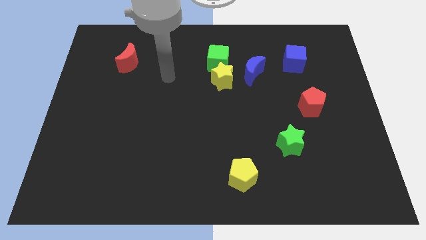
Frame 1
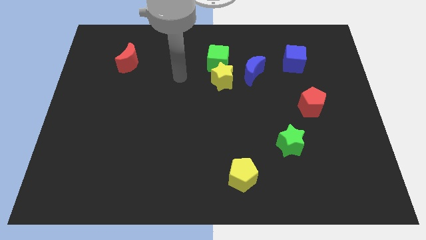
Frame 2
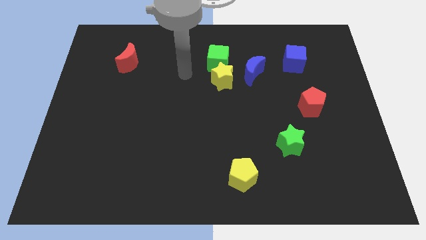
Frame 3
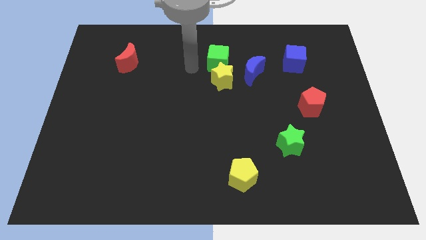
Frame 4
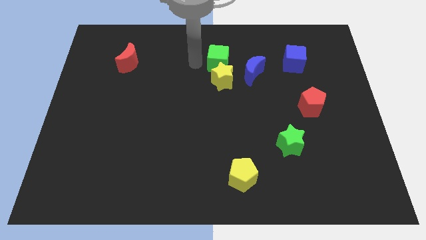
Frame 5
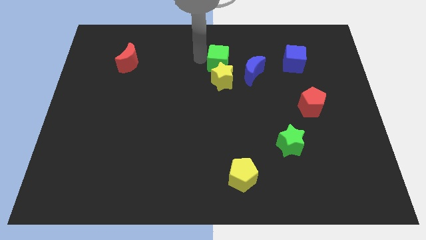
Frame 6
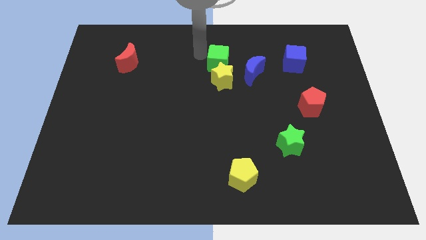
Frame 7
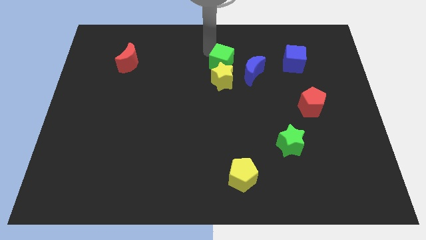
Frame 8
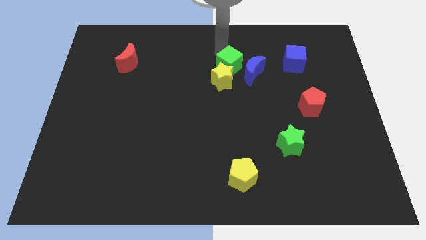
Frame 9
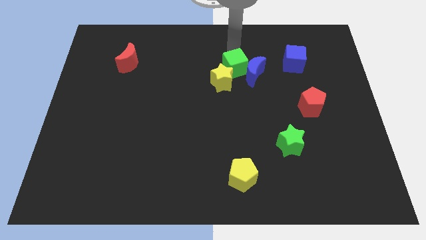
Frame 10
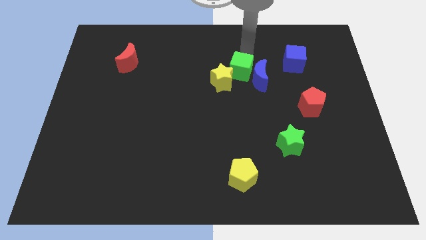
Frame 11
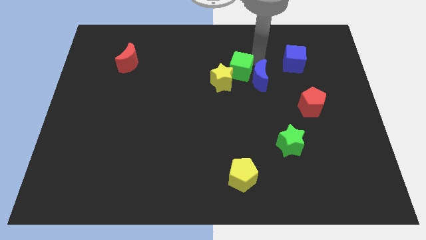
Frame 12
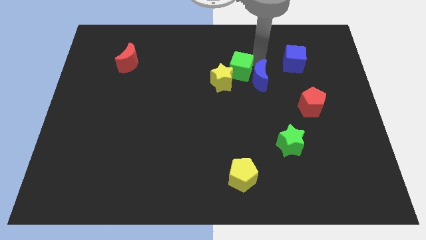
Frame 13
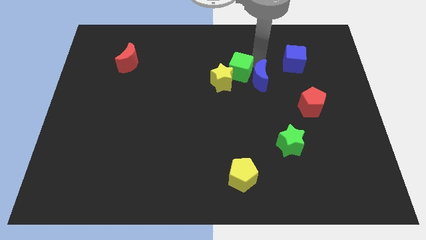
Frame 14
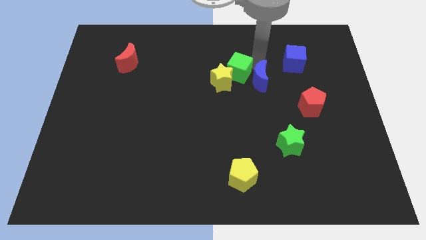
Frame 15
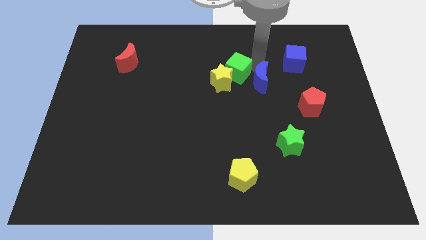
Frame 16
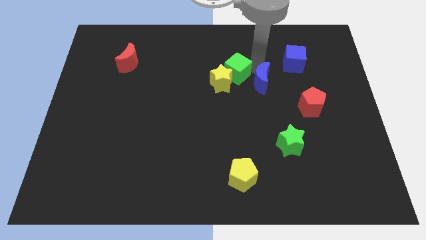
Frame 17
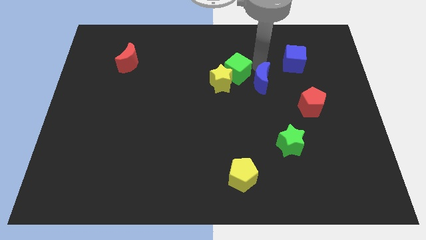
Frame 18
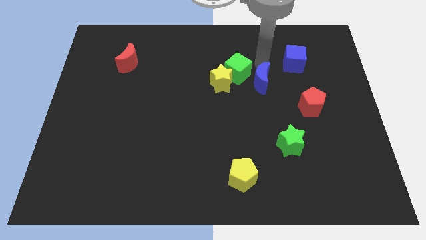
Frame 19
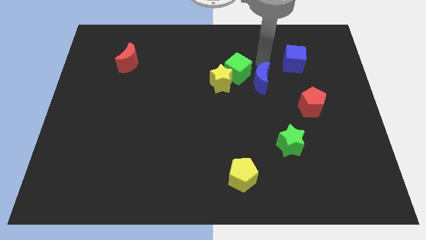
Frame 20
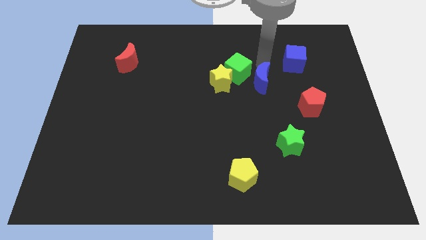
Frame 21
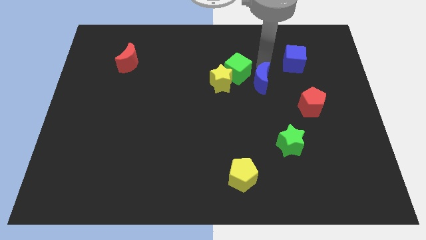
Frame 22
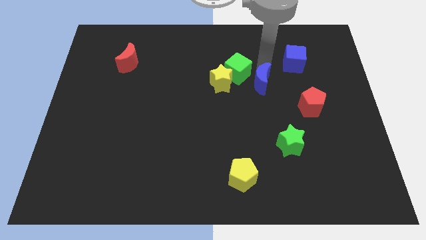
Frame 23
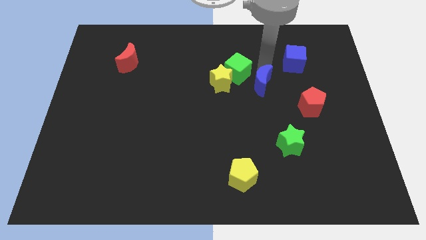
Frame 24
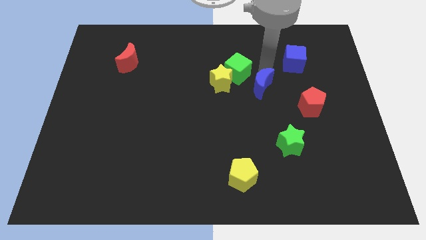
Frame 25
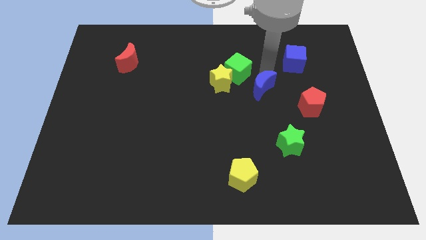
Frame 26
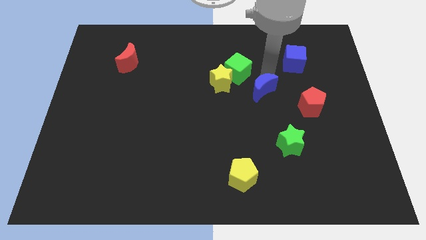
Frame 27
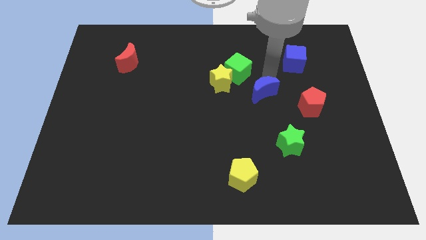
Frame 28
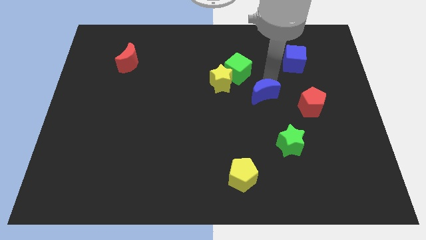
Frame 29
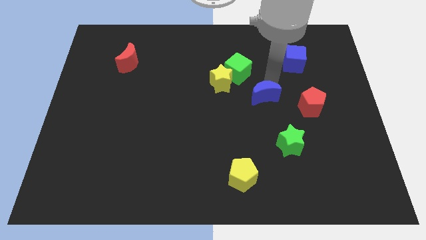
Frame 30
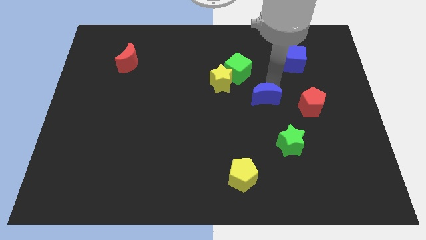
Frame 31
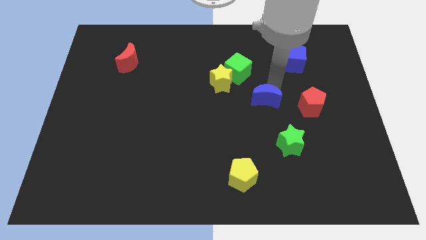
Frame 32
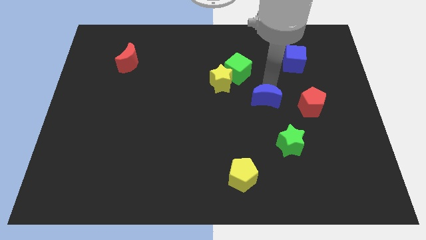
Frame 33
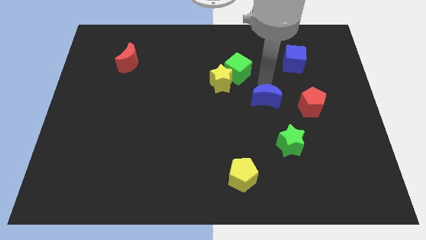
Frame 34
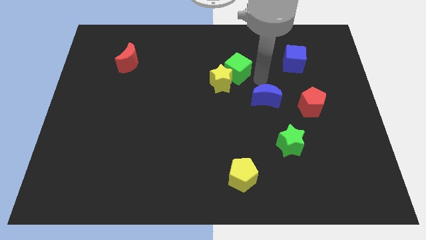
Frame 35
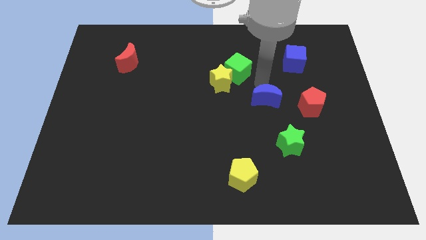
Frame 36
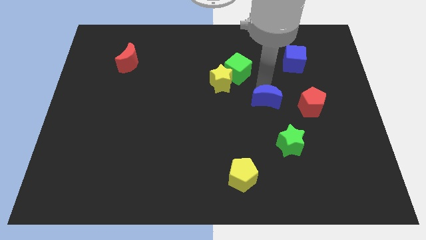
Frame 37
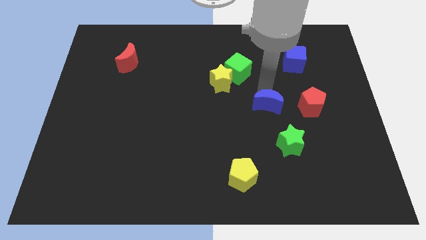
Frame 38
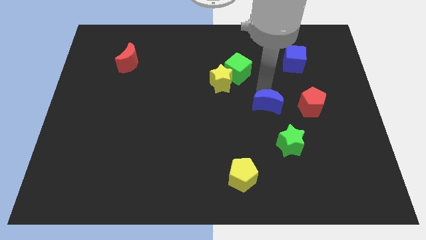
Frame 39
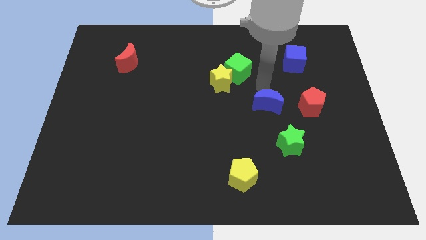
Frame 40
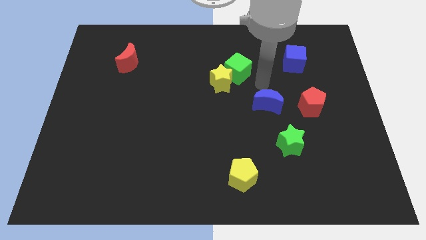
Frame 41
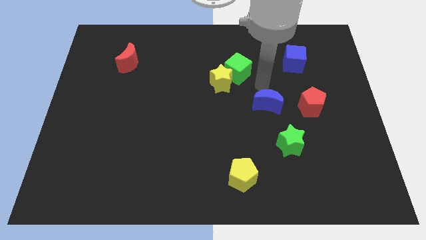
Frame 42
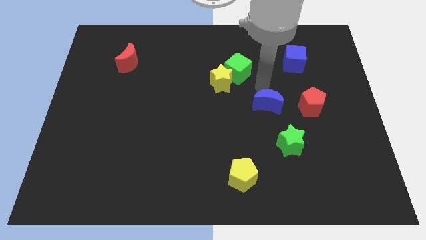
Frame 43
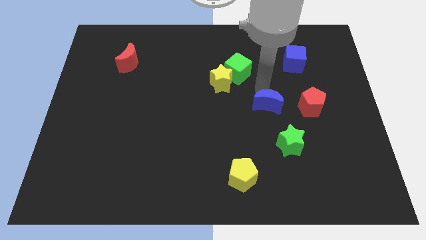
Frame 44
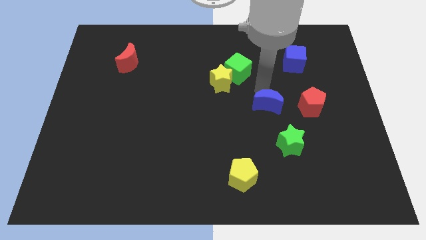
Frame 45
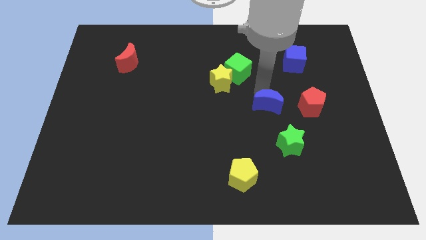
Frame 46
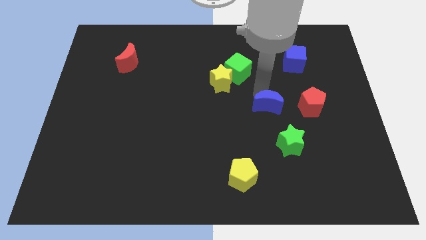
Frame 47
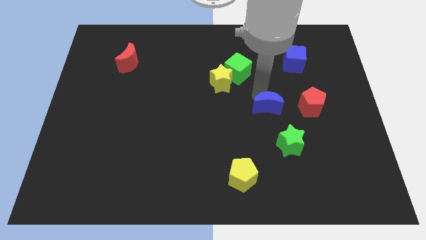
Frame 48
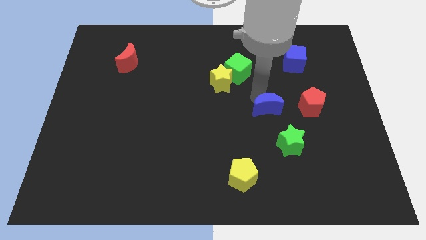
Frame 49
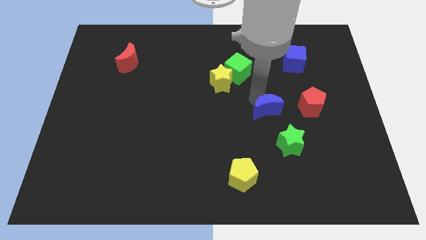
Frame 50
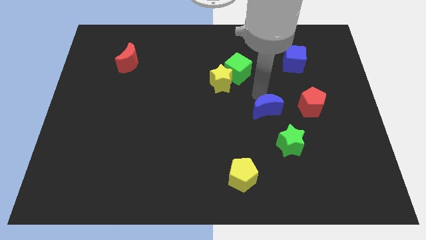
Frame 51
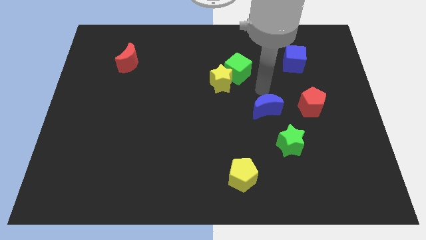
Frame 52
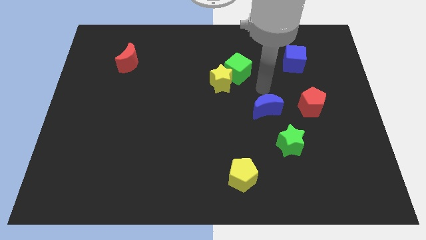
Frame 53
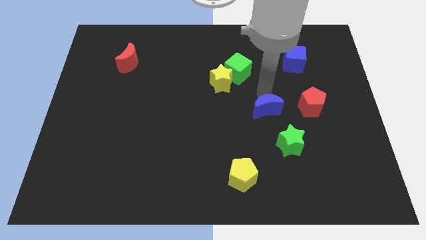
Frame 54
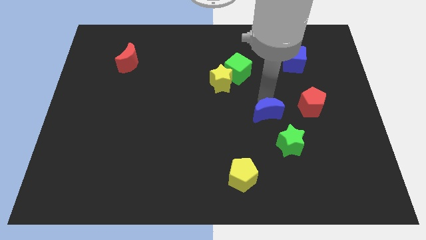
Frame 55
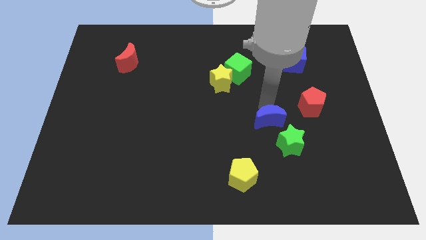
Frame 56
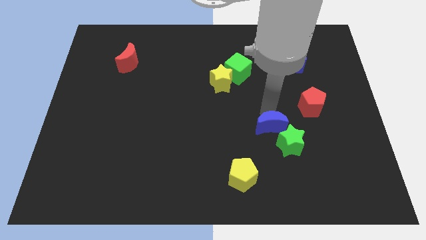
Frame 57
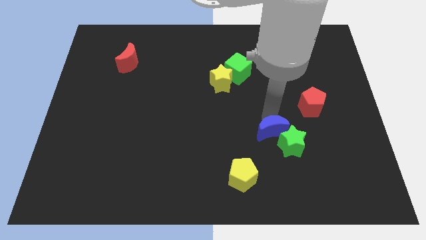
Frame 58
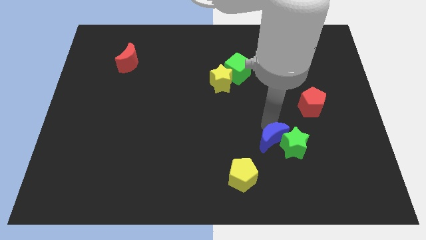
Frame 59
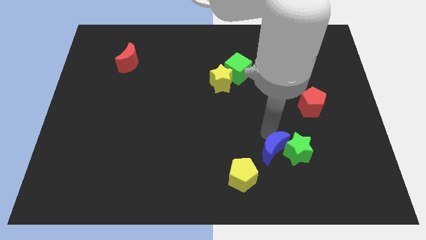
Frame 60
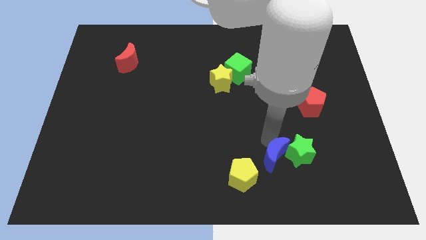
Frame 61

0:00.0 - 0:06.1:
put the blue moon just right of the yellow pentagon

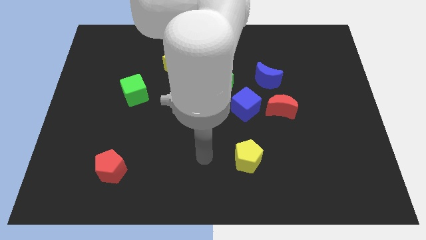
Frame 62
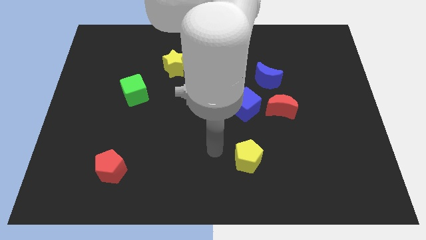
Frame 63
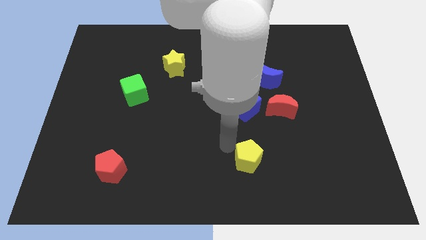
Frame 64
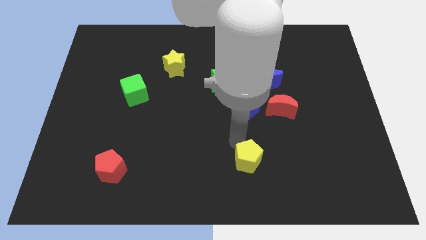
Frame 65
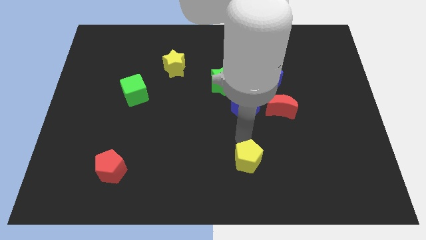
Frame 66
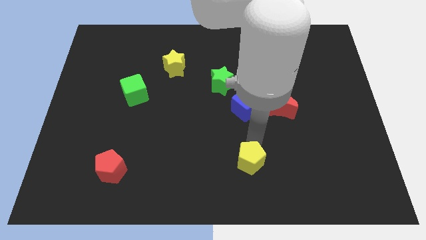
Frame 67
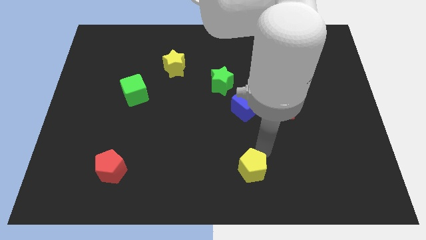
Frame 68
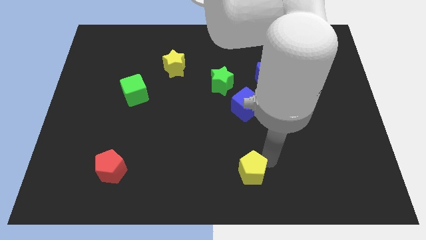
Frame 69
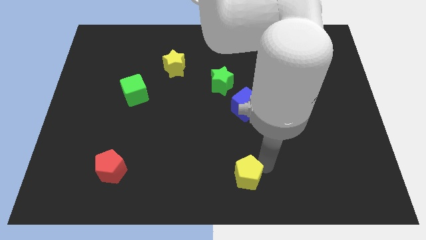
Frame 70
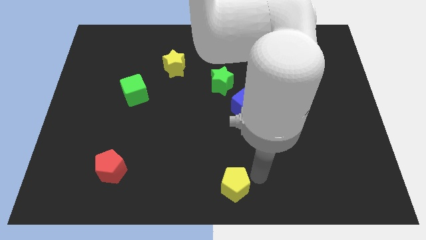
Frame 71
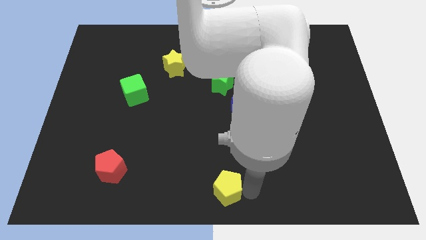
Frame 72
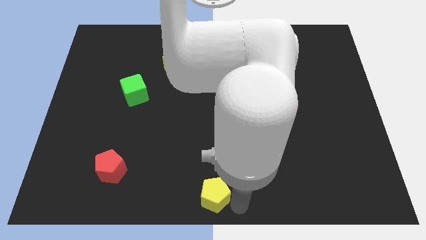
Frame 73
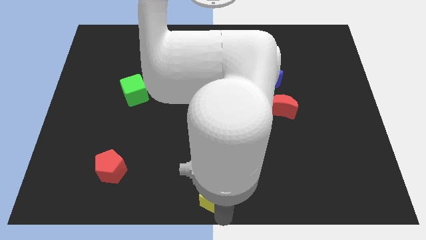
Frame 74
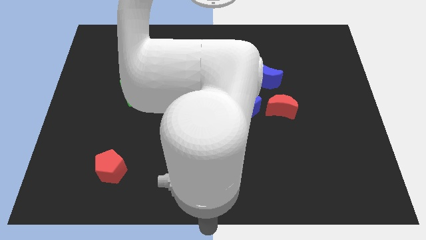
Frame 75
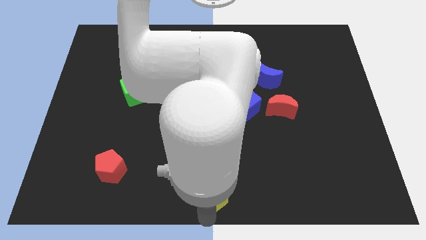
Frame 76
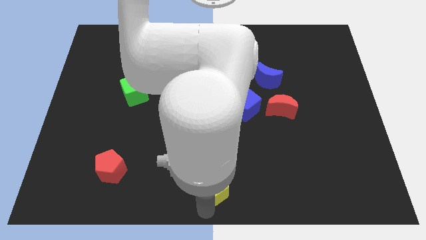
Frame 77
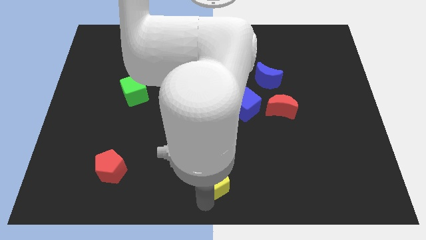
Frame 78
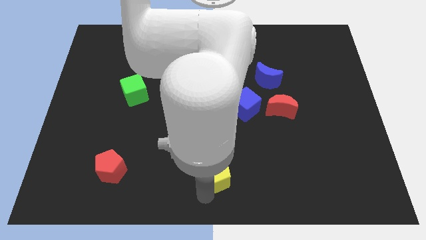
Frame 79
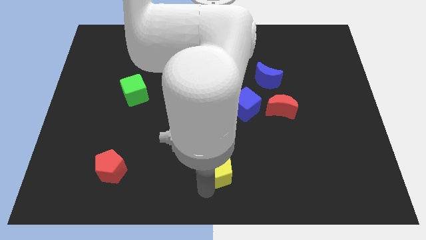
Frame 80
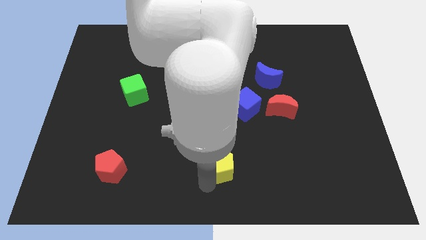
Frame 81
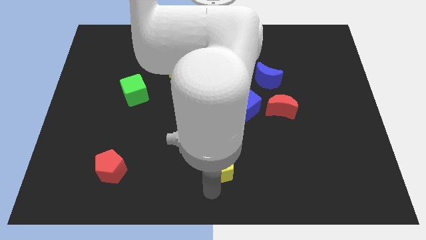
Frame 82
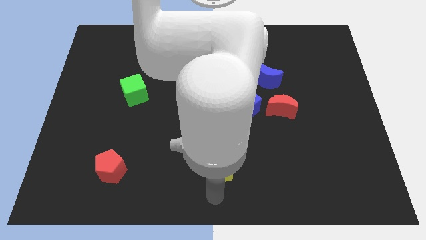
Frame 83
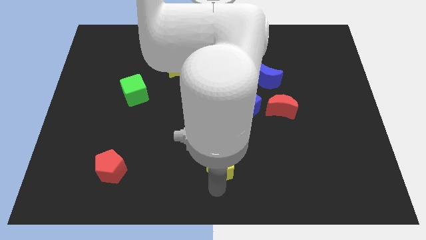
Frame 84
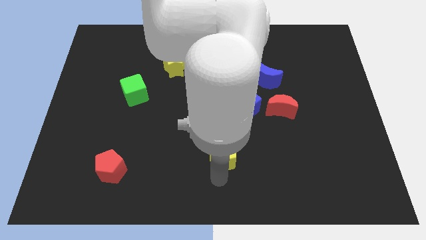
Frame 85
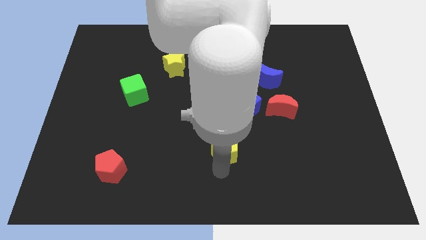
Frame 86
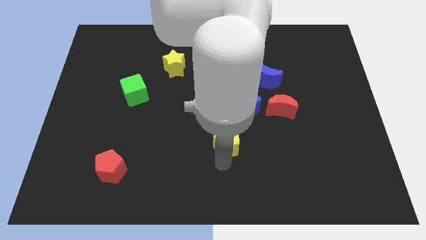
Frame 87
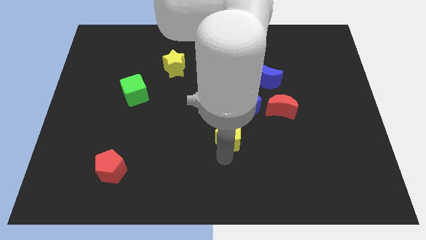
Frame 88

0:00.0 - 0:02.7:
put the yellow pentagon below the green star
